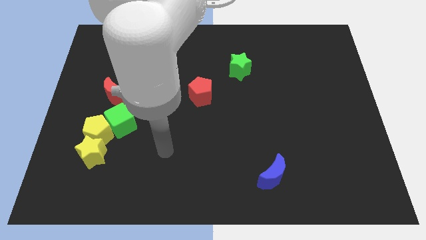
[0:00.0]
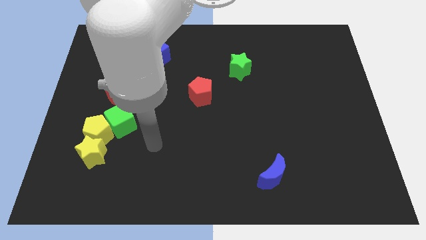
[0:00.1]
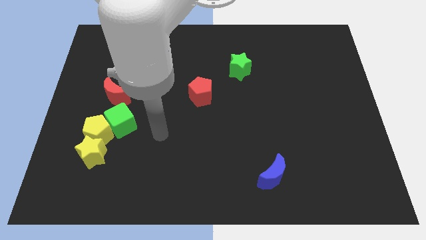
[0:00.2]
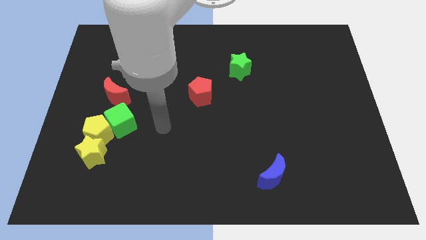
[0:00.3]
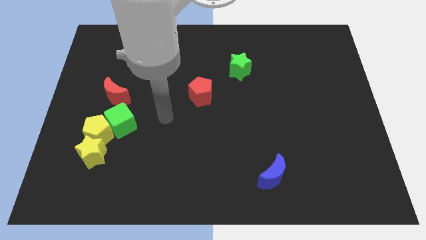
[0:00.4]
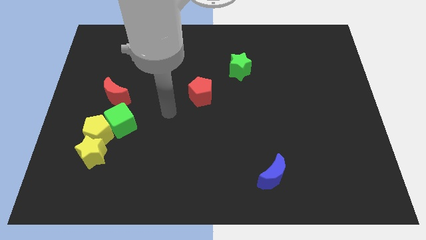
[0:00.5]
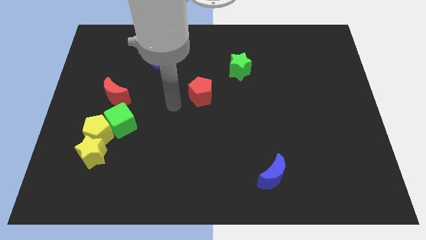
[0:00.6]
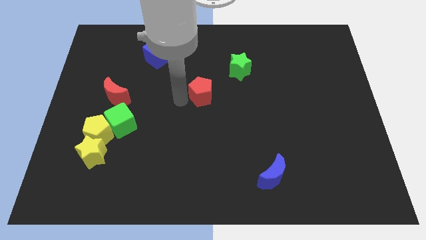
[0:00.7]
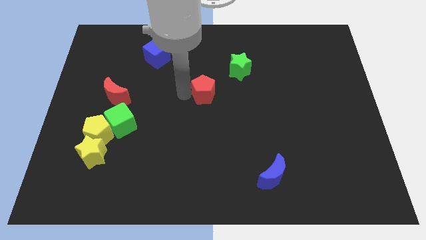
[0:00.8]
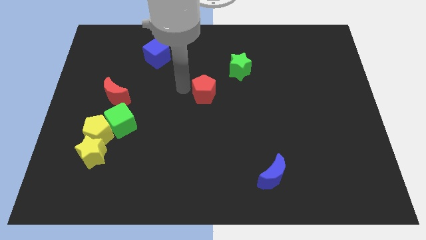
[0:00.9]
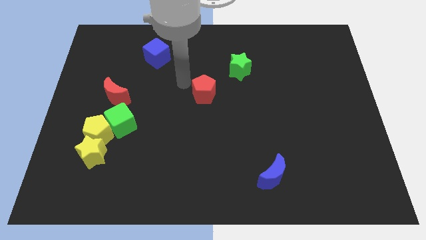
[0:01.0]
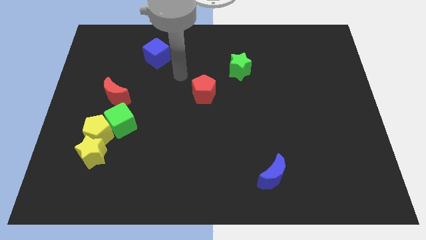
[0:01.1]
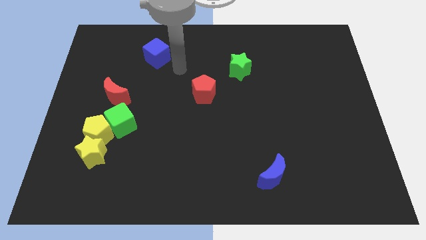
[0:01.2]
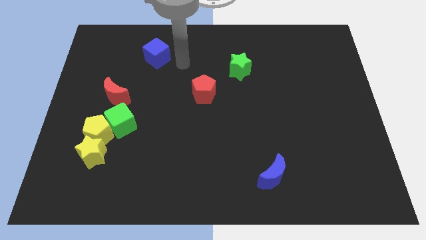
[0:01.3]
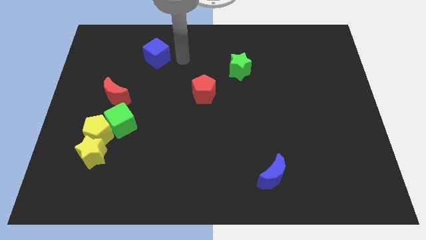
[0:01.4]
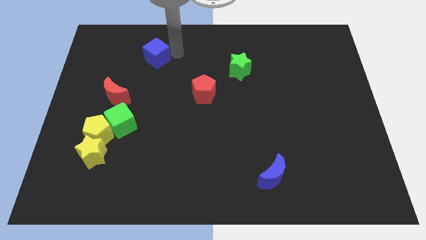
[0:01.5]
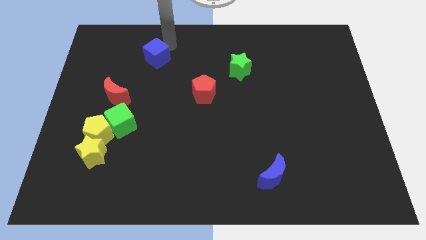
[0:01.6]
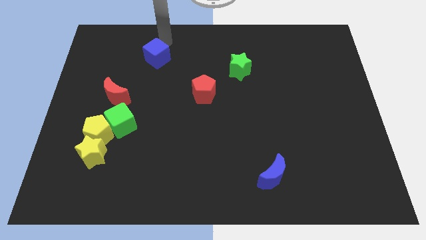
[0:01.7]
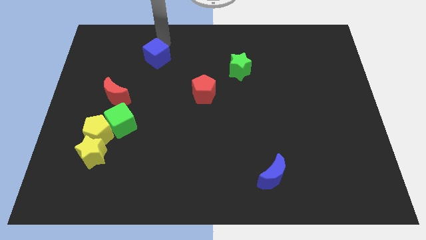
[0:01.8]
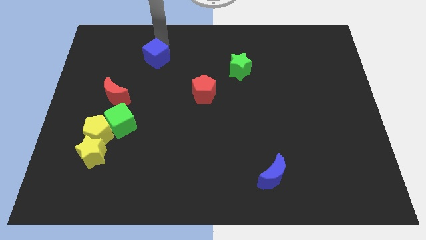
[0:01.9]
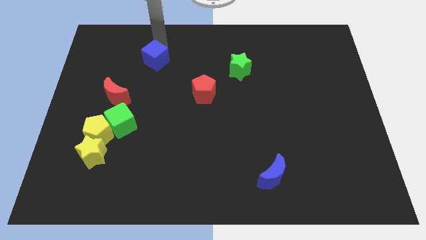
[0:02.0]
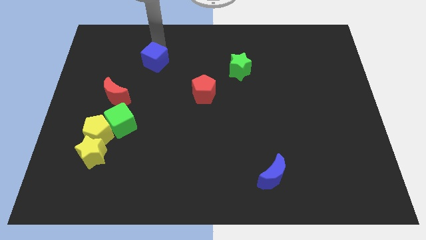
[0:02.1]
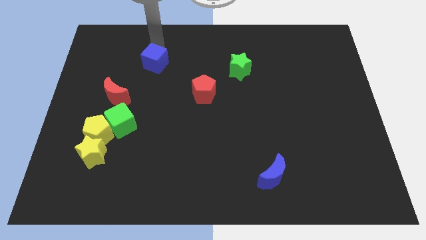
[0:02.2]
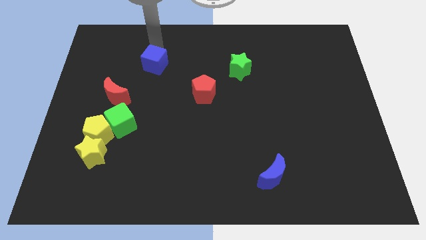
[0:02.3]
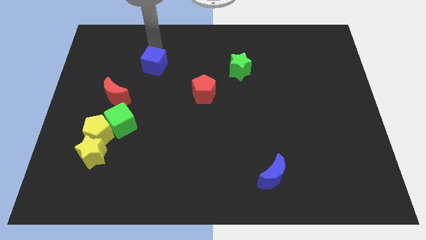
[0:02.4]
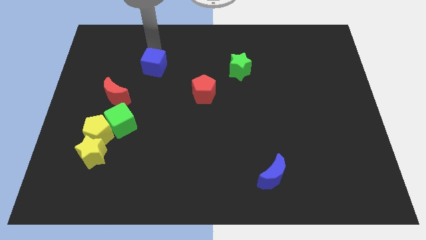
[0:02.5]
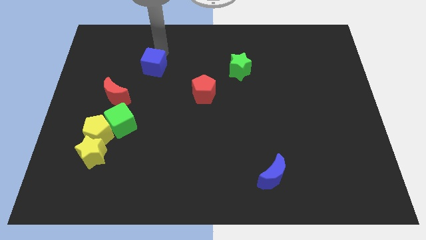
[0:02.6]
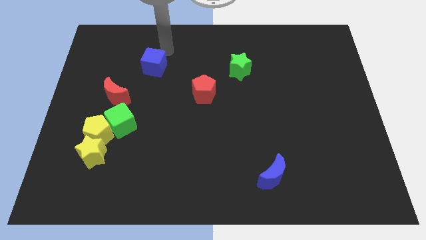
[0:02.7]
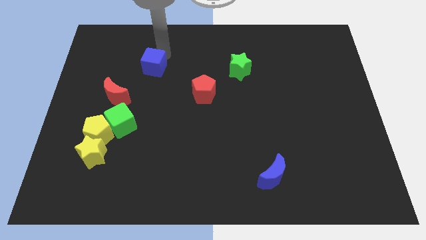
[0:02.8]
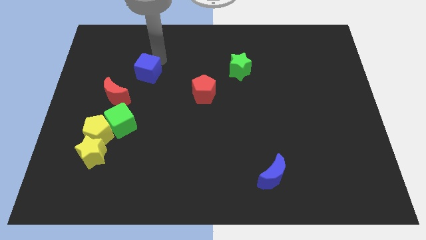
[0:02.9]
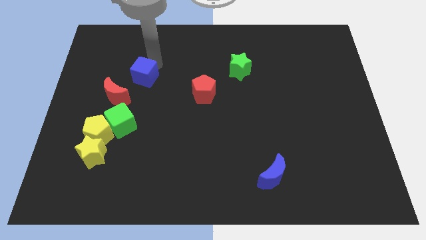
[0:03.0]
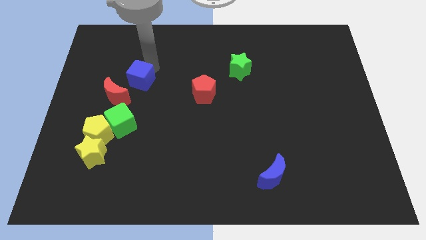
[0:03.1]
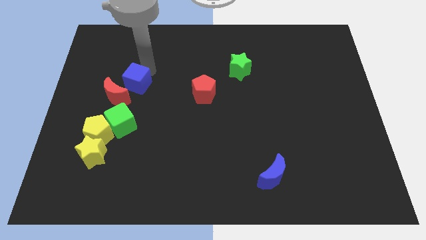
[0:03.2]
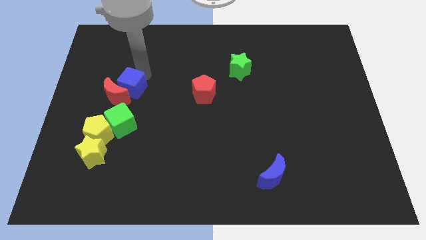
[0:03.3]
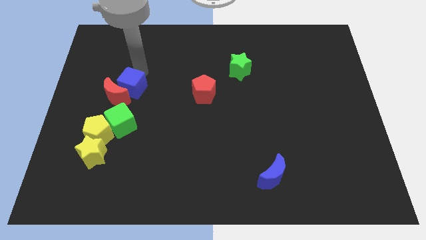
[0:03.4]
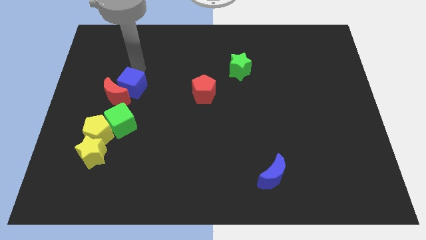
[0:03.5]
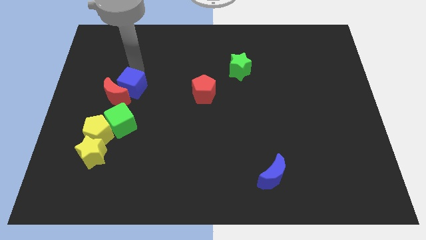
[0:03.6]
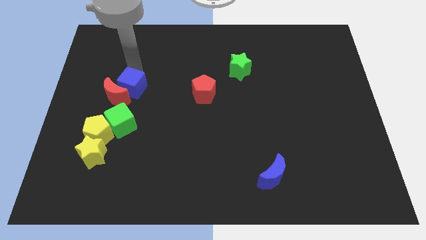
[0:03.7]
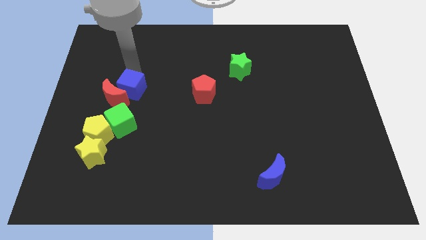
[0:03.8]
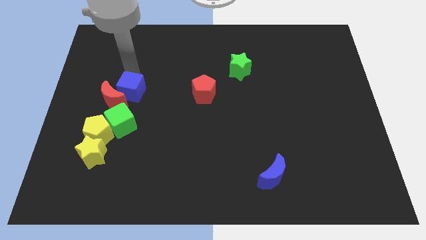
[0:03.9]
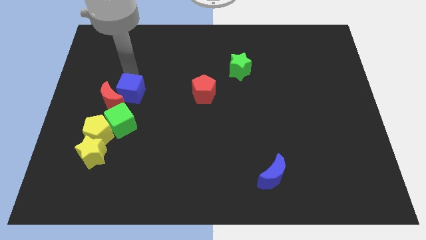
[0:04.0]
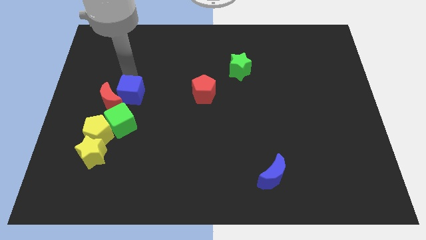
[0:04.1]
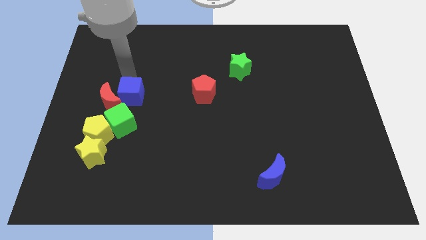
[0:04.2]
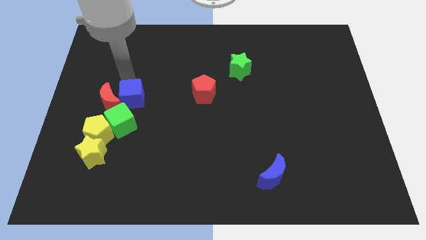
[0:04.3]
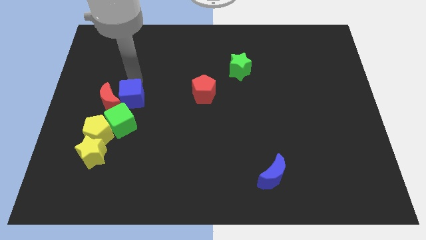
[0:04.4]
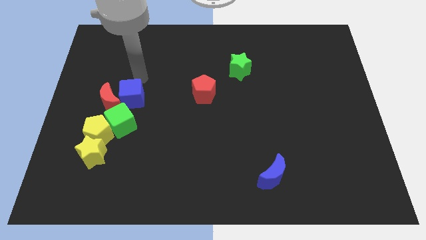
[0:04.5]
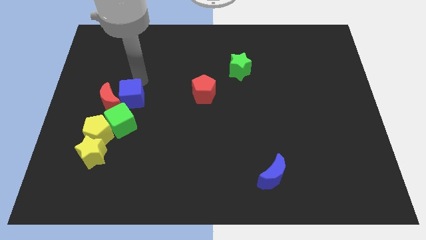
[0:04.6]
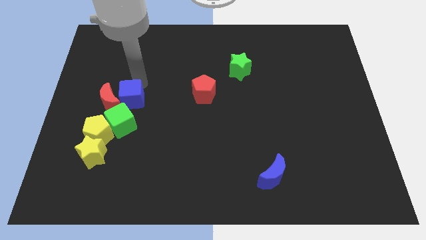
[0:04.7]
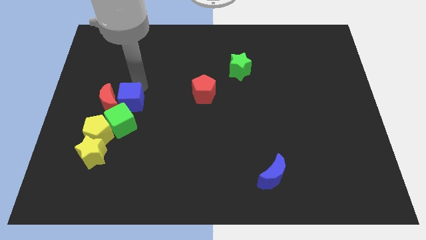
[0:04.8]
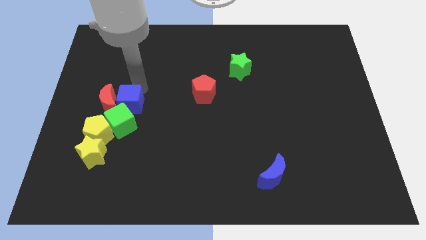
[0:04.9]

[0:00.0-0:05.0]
move the blue cube close to the green cube

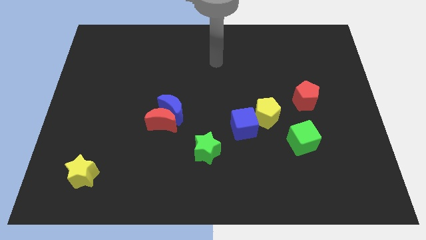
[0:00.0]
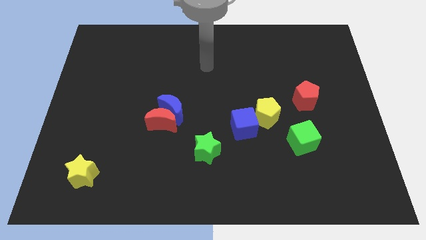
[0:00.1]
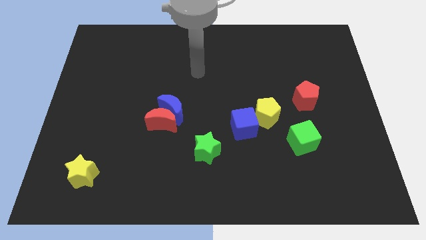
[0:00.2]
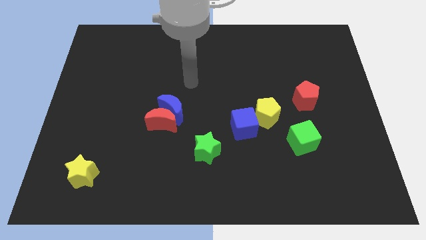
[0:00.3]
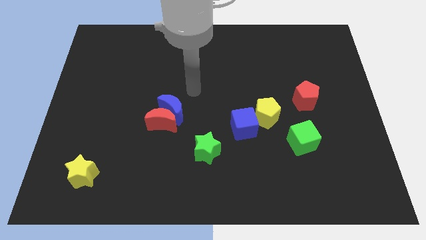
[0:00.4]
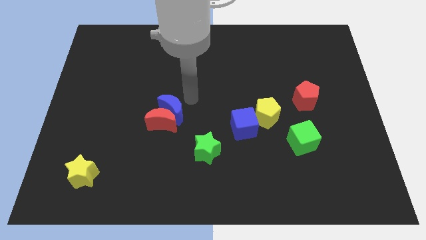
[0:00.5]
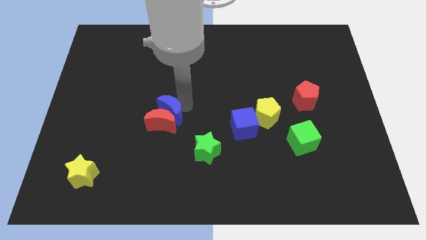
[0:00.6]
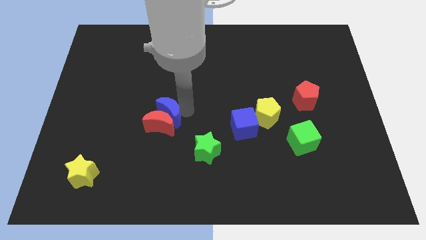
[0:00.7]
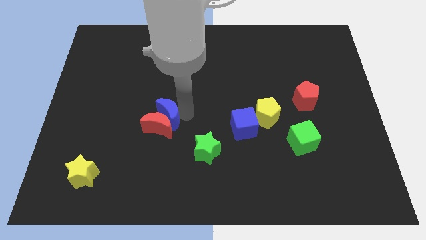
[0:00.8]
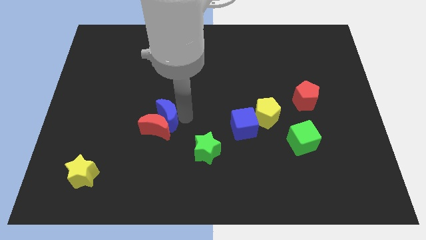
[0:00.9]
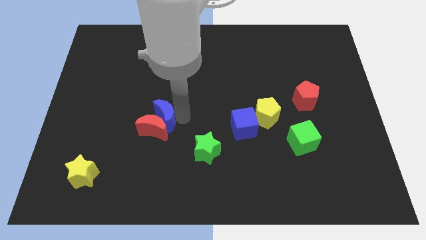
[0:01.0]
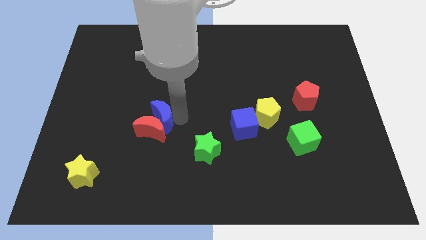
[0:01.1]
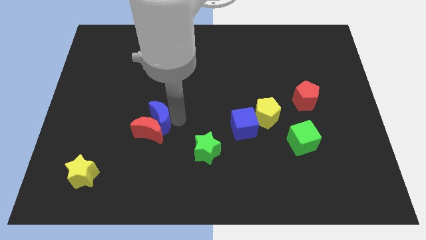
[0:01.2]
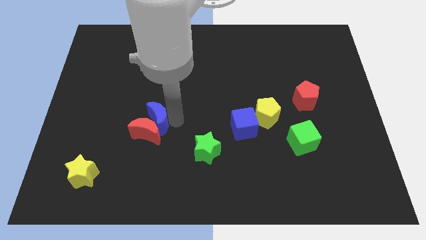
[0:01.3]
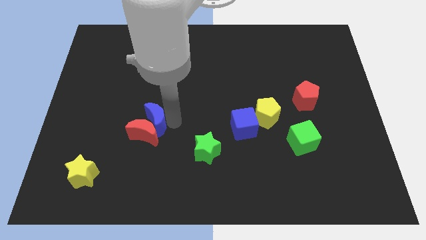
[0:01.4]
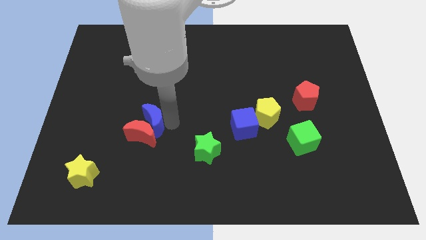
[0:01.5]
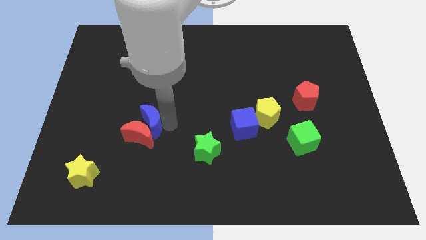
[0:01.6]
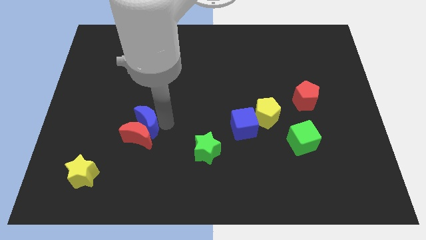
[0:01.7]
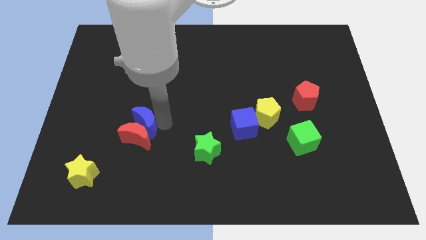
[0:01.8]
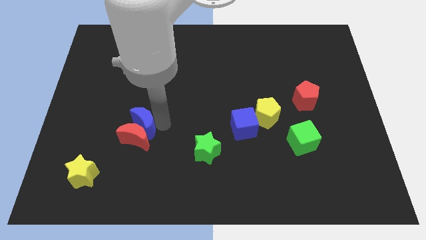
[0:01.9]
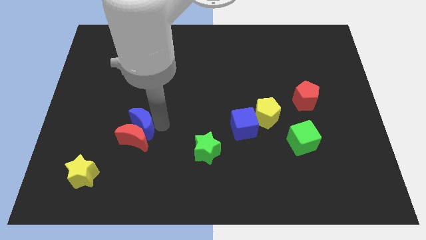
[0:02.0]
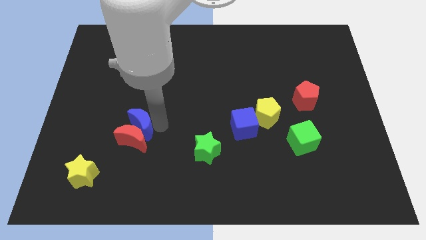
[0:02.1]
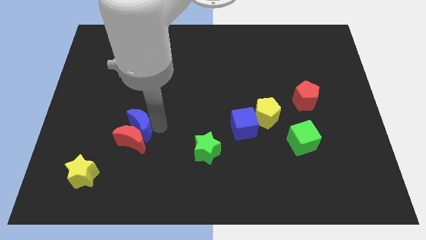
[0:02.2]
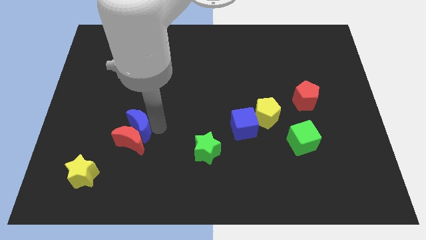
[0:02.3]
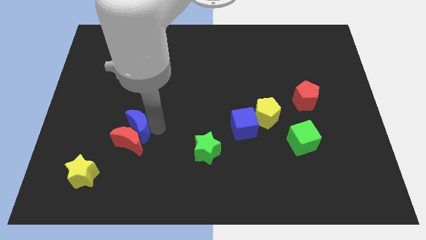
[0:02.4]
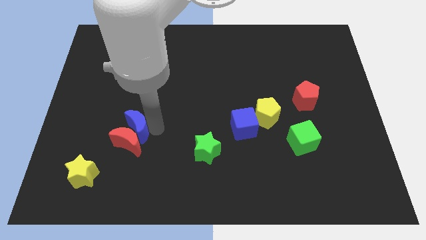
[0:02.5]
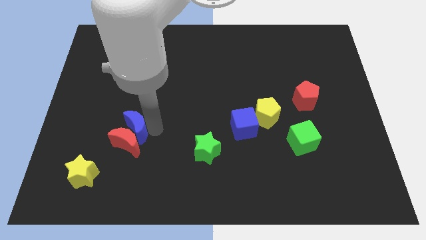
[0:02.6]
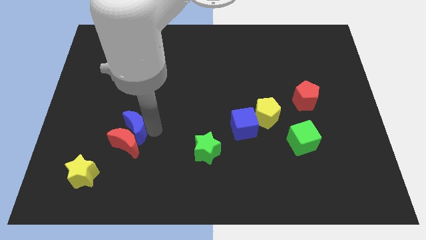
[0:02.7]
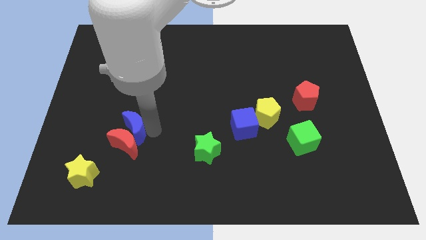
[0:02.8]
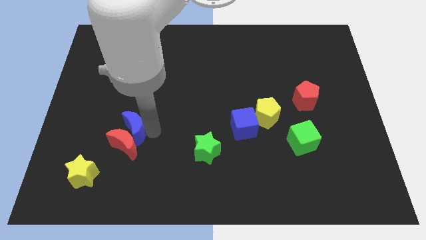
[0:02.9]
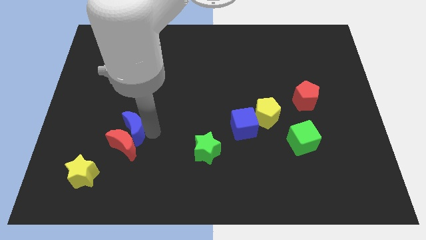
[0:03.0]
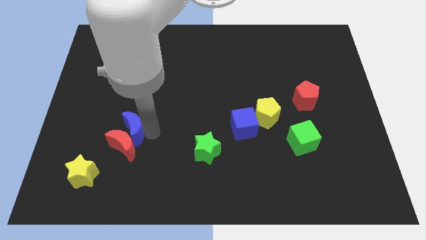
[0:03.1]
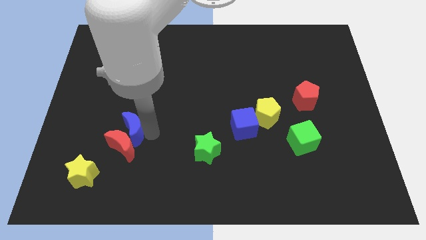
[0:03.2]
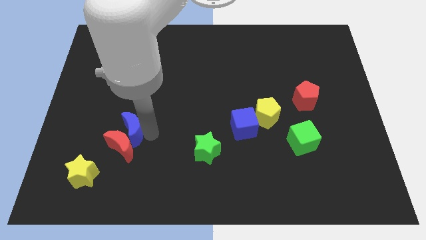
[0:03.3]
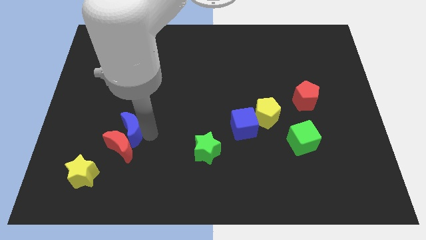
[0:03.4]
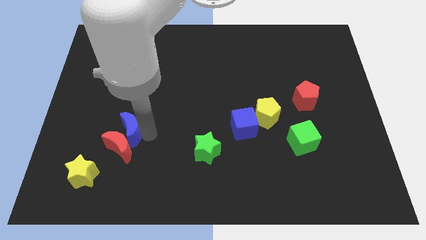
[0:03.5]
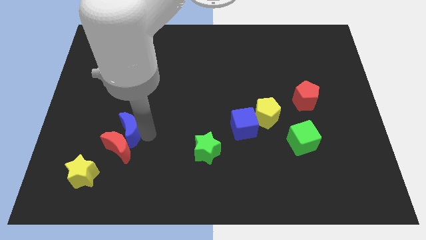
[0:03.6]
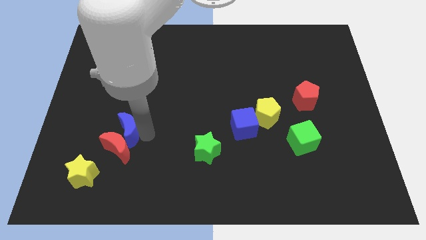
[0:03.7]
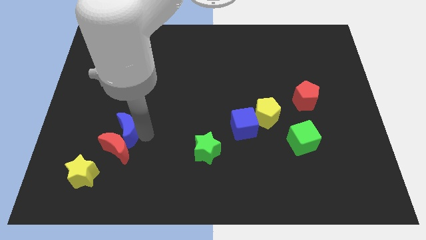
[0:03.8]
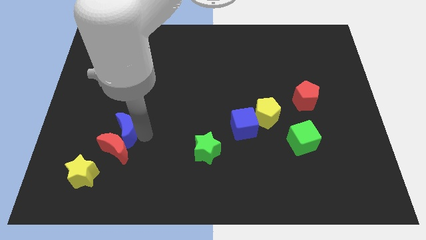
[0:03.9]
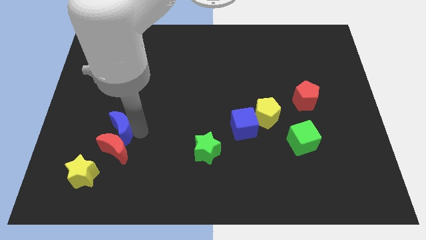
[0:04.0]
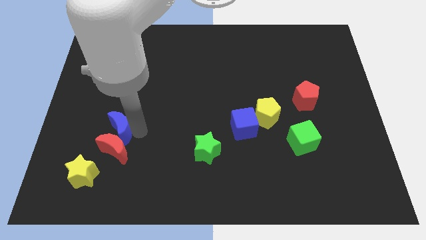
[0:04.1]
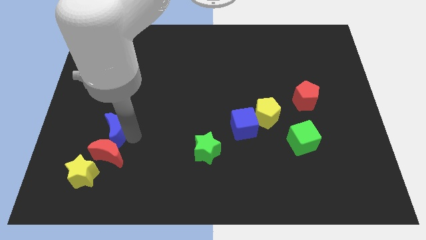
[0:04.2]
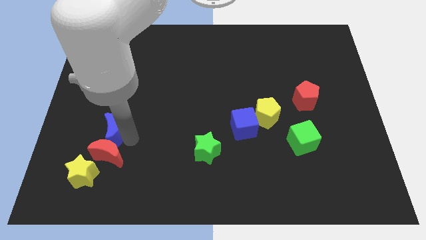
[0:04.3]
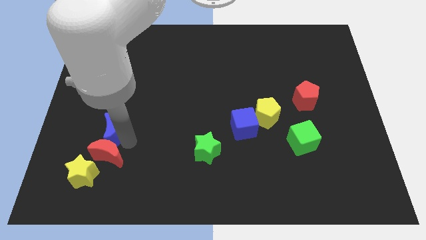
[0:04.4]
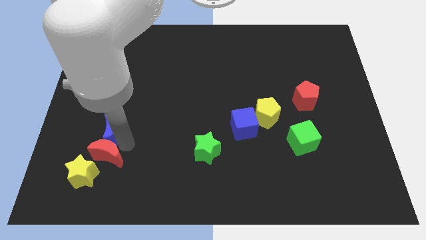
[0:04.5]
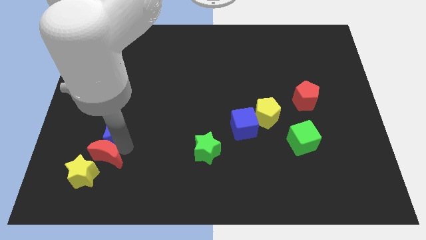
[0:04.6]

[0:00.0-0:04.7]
slide the red moon close to the yellow star
